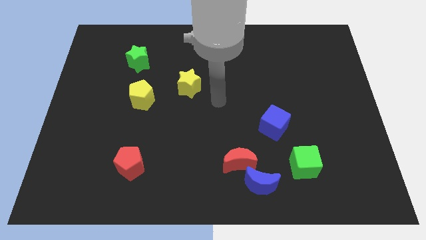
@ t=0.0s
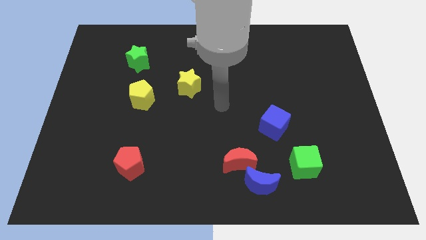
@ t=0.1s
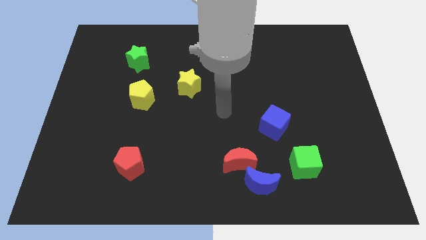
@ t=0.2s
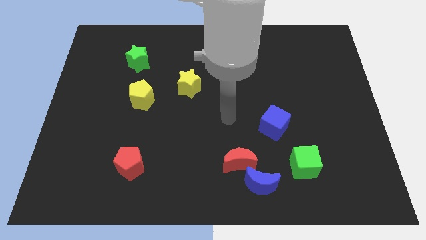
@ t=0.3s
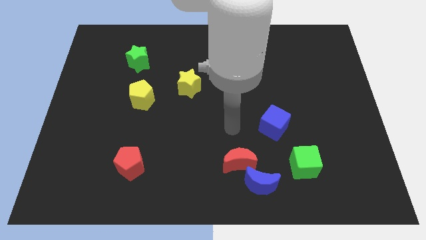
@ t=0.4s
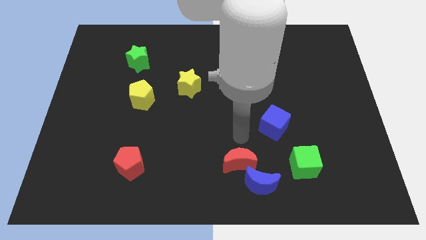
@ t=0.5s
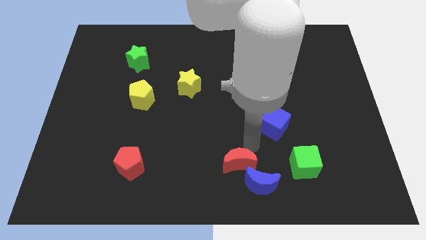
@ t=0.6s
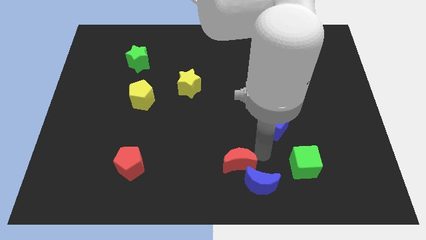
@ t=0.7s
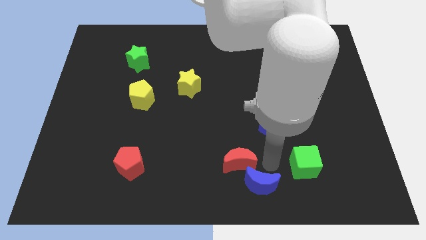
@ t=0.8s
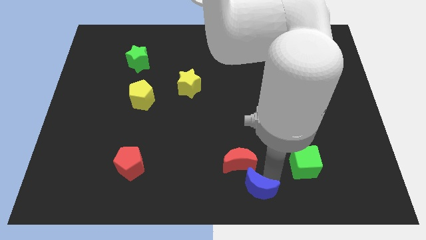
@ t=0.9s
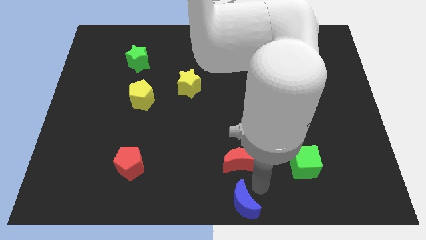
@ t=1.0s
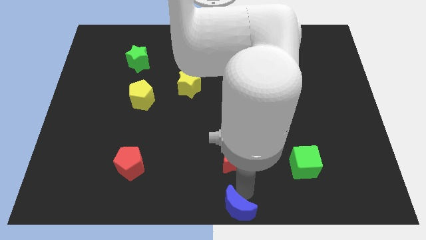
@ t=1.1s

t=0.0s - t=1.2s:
pull the red moon apart from the blue moon

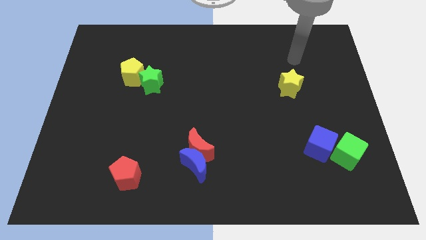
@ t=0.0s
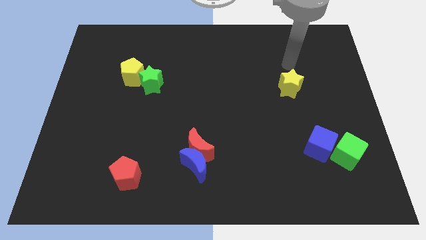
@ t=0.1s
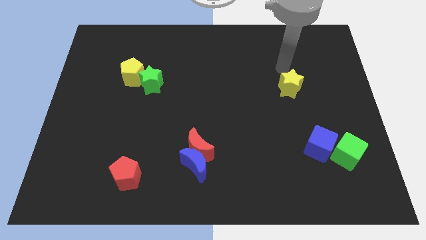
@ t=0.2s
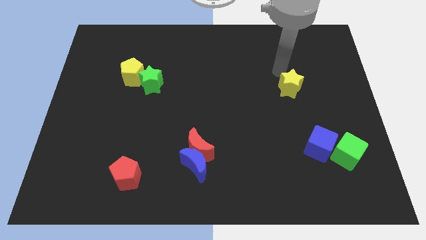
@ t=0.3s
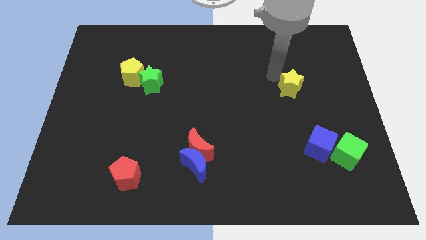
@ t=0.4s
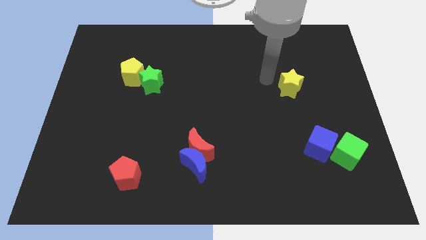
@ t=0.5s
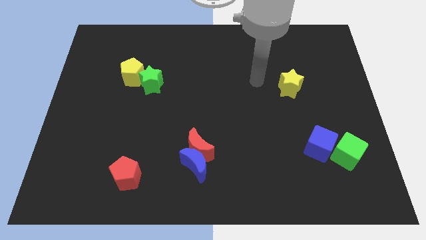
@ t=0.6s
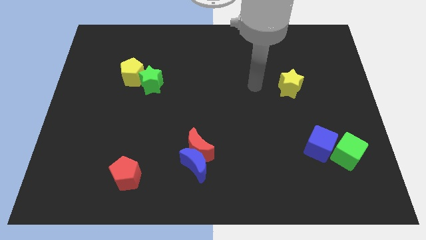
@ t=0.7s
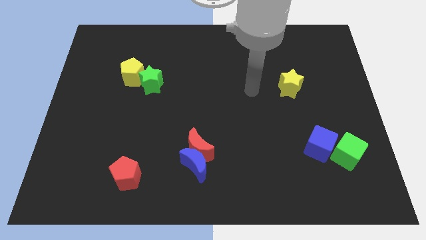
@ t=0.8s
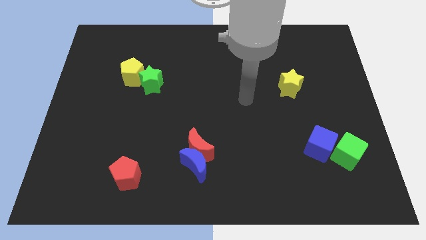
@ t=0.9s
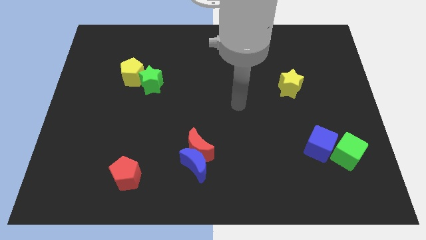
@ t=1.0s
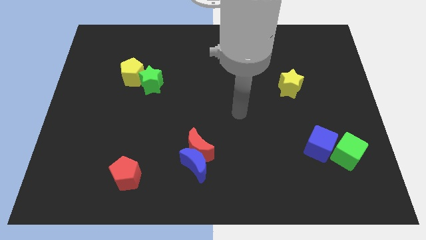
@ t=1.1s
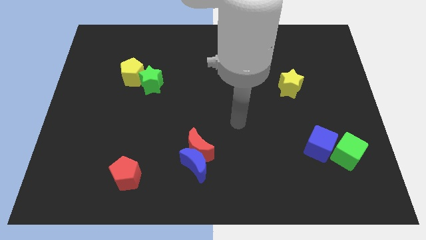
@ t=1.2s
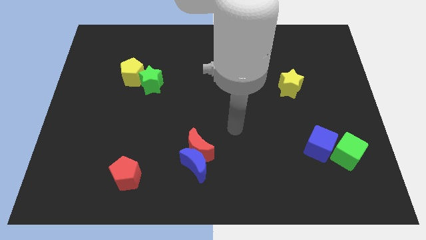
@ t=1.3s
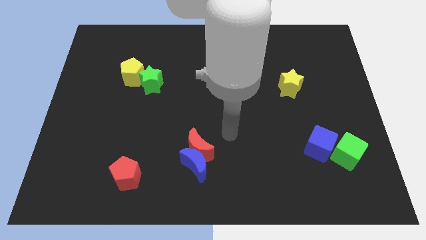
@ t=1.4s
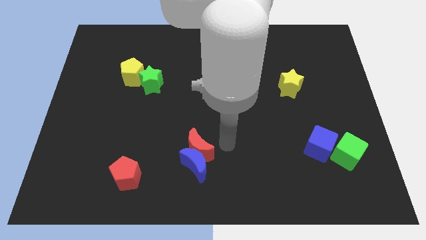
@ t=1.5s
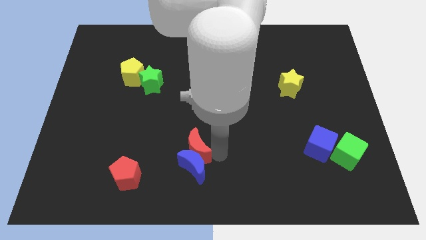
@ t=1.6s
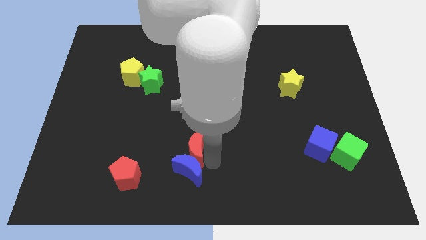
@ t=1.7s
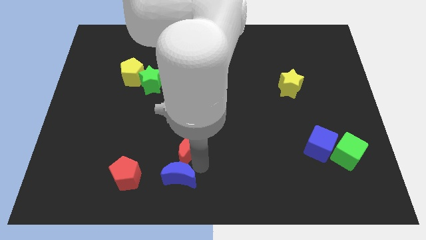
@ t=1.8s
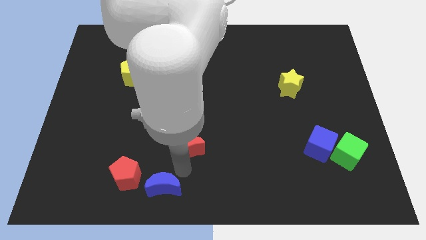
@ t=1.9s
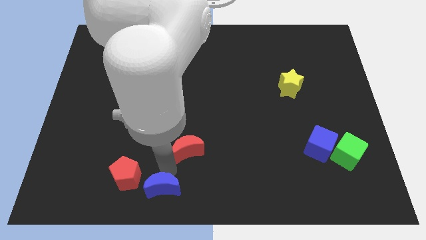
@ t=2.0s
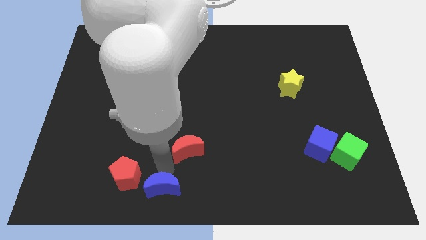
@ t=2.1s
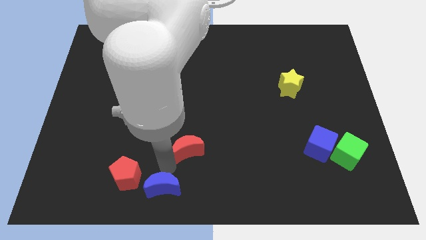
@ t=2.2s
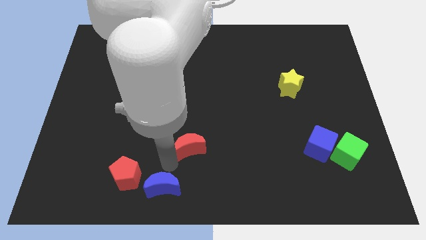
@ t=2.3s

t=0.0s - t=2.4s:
separate the red moon from the blue moon

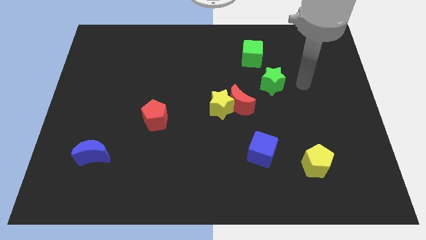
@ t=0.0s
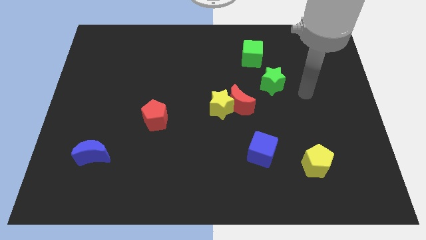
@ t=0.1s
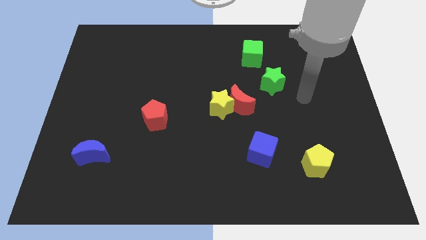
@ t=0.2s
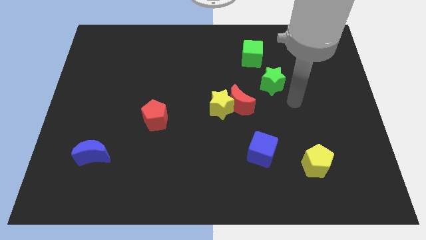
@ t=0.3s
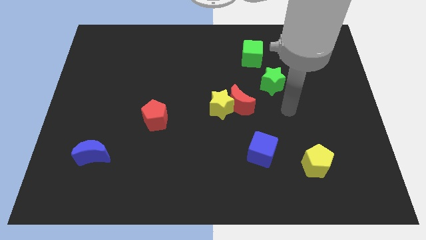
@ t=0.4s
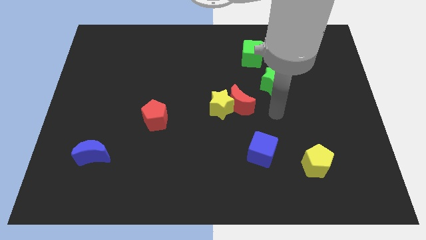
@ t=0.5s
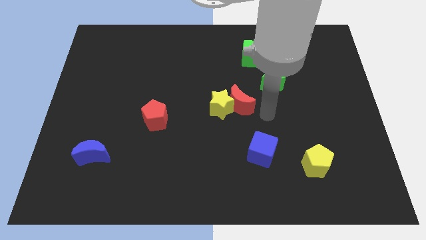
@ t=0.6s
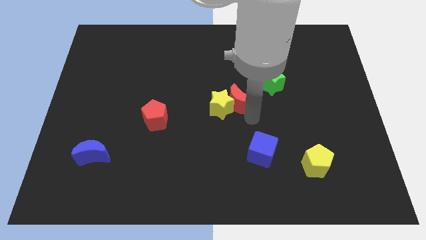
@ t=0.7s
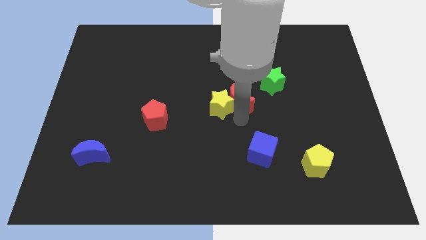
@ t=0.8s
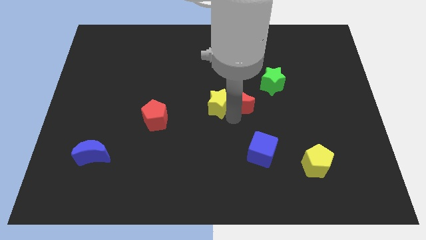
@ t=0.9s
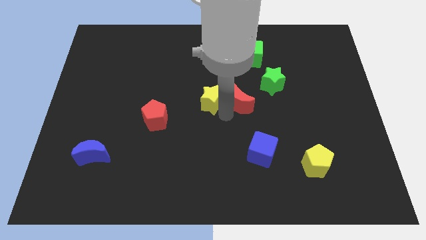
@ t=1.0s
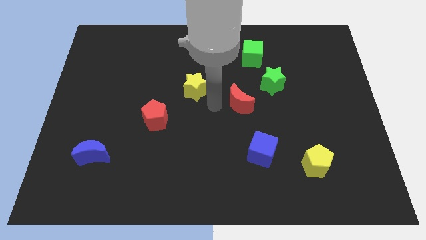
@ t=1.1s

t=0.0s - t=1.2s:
move the red moon away from the yellow star

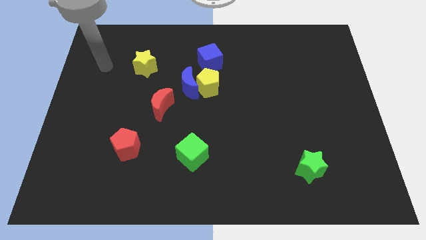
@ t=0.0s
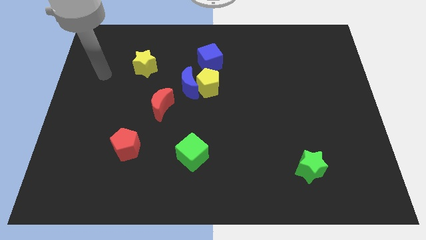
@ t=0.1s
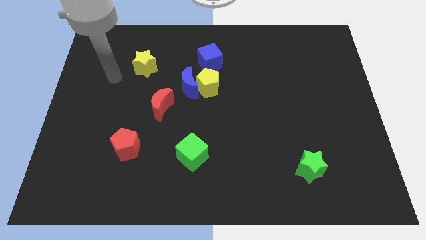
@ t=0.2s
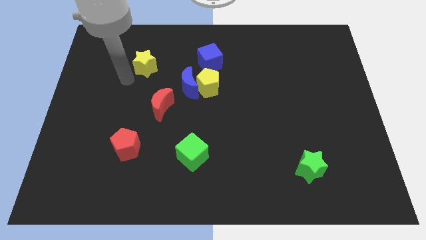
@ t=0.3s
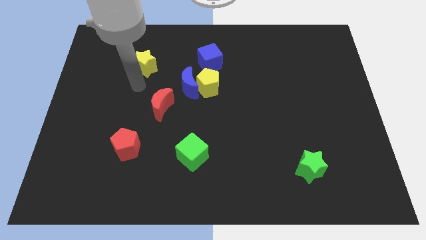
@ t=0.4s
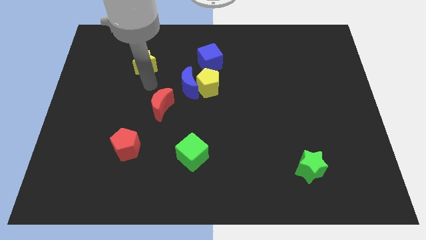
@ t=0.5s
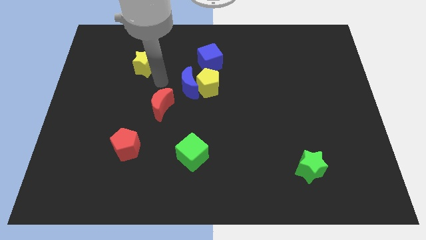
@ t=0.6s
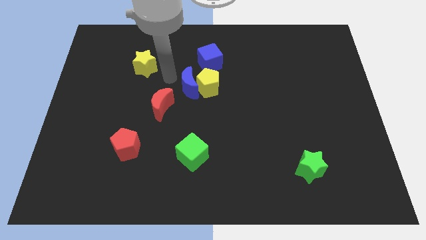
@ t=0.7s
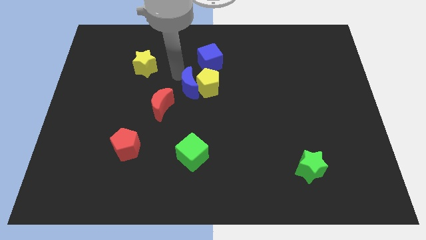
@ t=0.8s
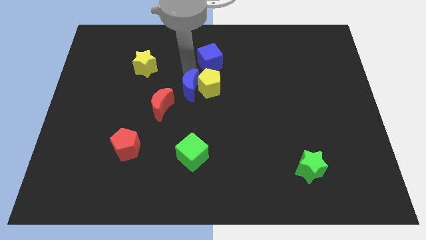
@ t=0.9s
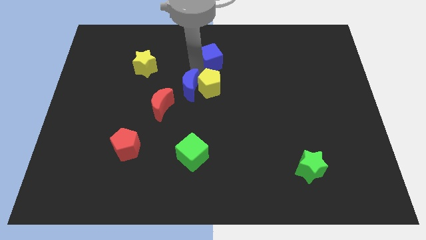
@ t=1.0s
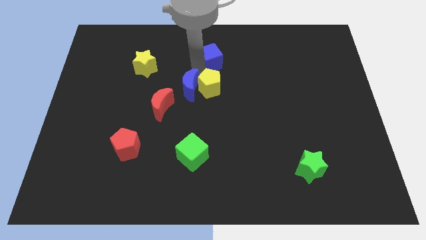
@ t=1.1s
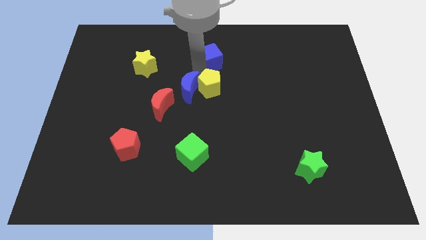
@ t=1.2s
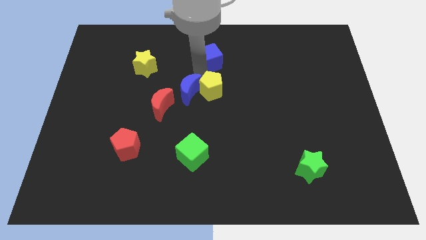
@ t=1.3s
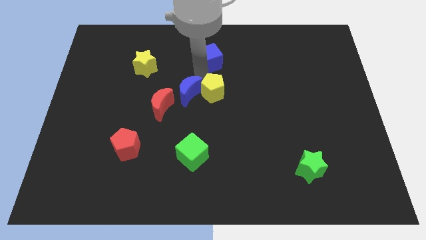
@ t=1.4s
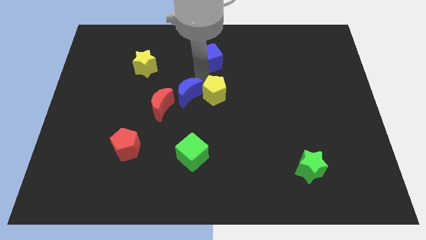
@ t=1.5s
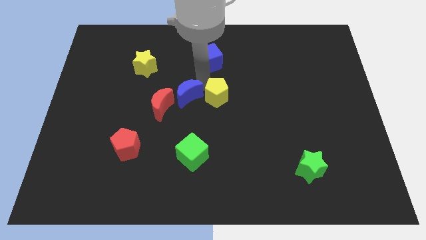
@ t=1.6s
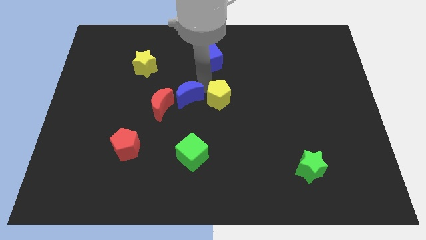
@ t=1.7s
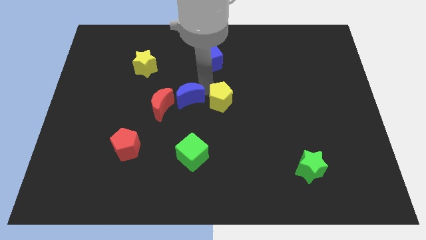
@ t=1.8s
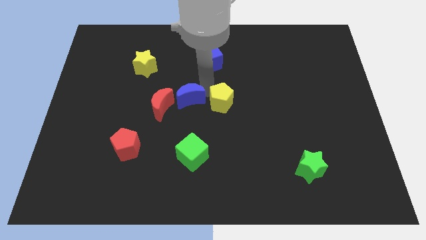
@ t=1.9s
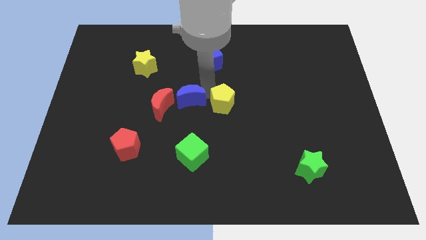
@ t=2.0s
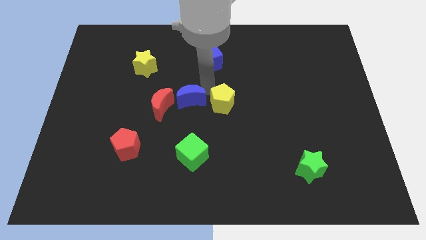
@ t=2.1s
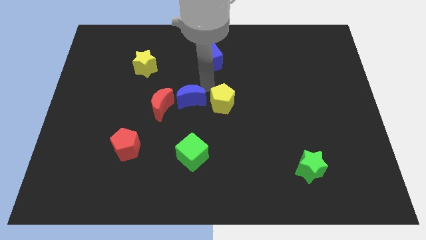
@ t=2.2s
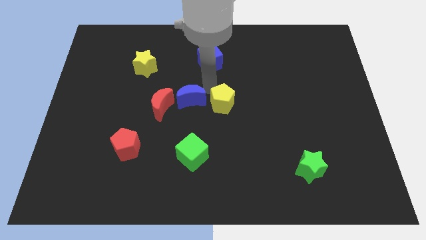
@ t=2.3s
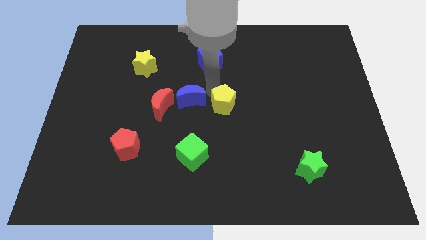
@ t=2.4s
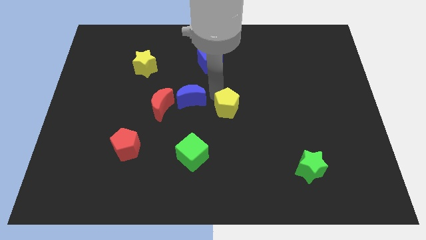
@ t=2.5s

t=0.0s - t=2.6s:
separate the yellow pentagon from the blue moon and blue cube

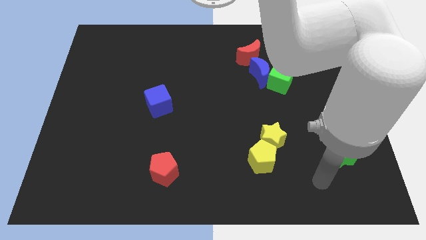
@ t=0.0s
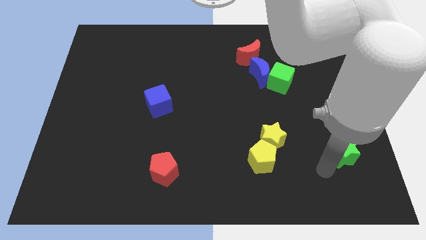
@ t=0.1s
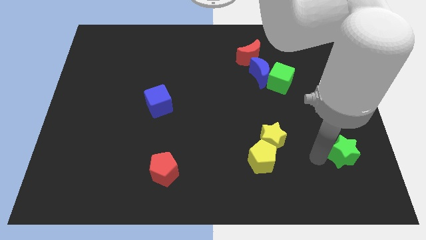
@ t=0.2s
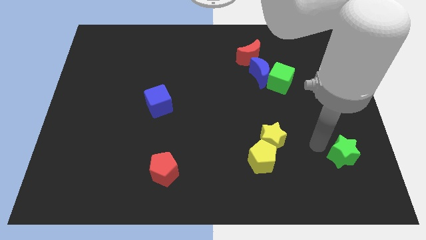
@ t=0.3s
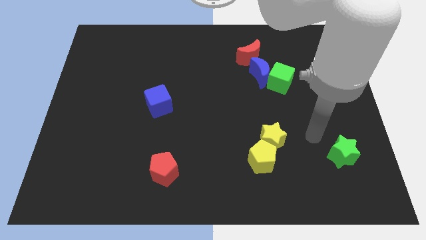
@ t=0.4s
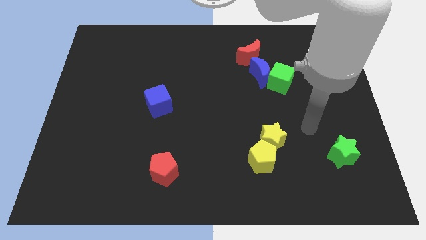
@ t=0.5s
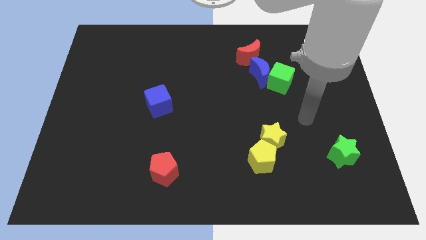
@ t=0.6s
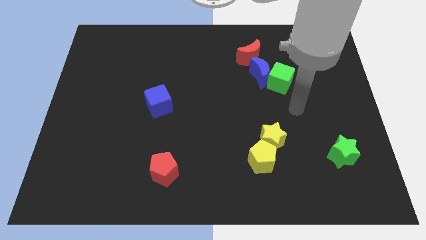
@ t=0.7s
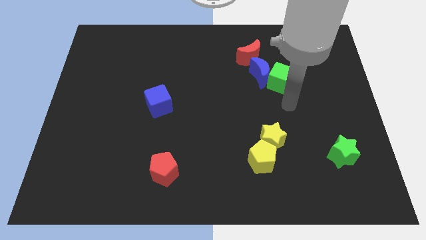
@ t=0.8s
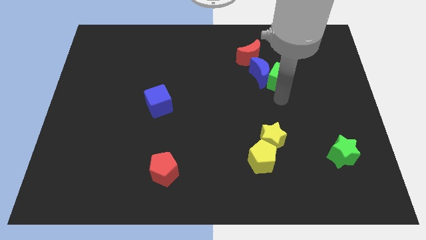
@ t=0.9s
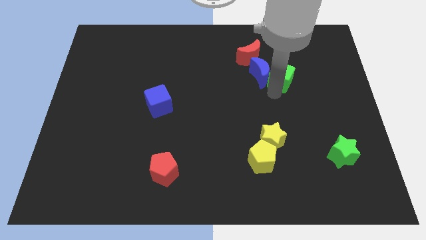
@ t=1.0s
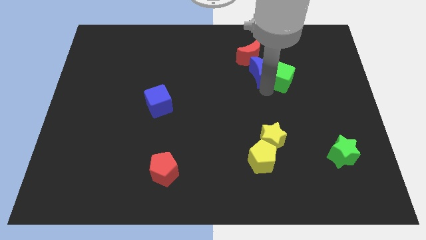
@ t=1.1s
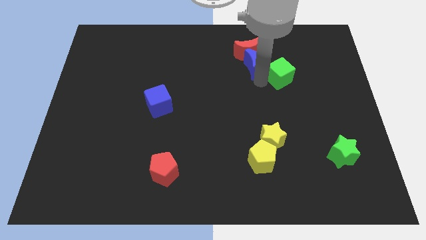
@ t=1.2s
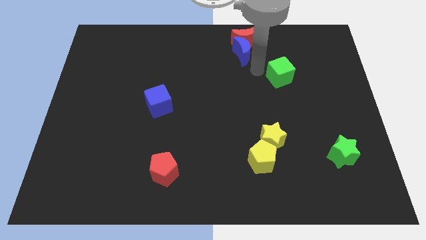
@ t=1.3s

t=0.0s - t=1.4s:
pull the green cube apart from the blue moon

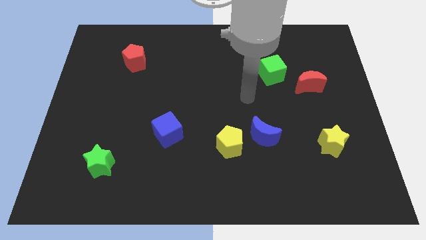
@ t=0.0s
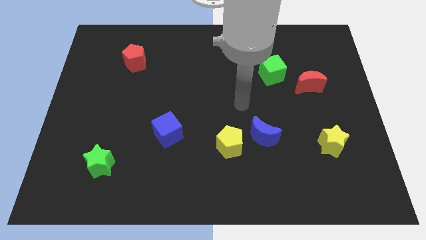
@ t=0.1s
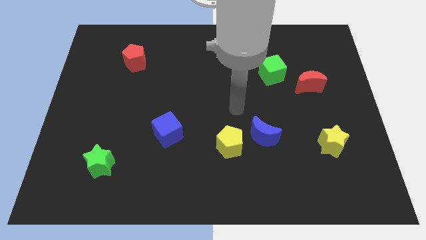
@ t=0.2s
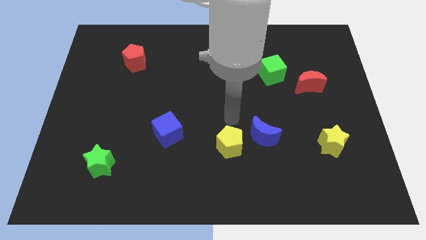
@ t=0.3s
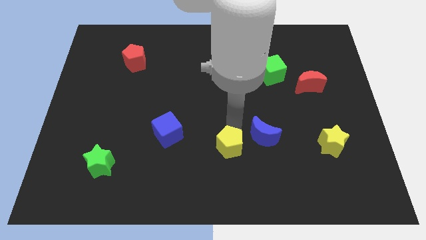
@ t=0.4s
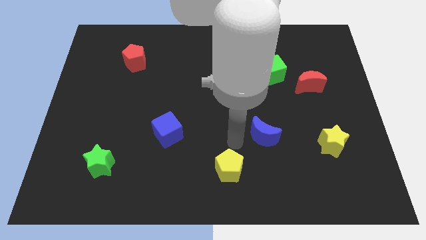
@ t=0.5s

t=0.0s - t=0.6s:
separate the blue moon from the yellow pentagon
